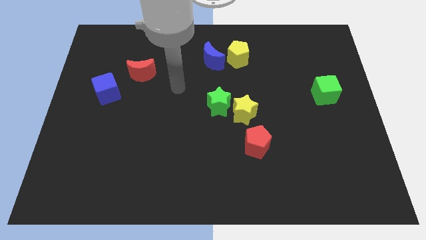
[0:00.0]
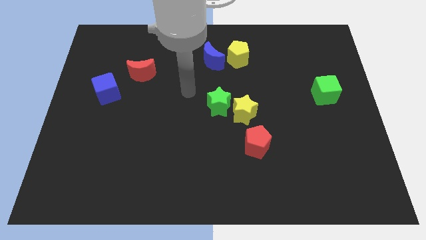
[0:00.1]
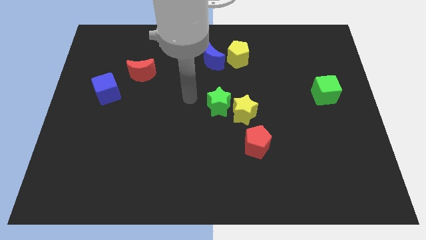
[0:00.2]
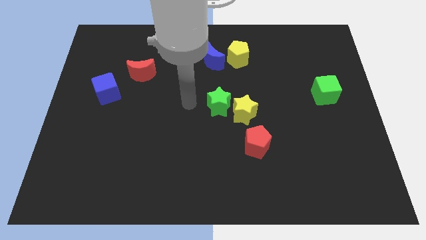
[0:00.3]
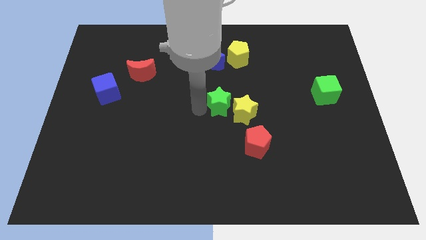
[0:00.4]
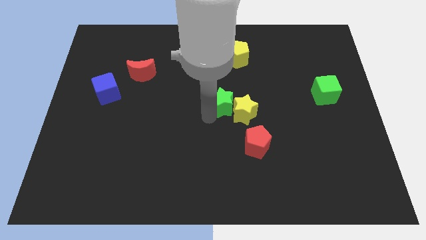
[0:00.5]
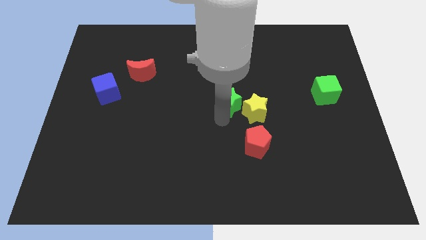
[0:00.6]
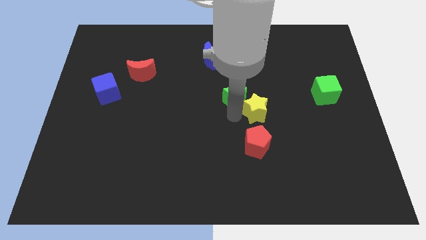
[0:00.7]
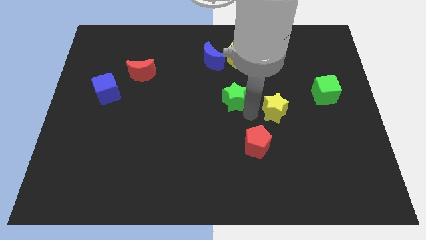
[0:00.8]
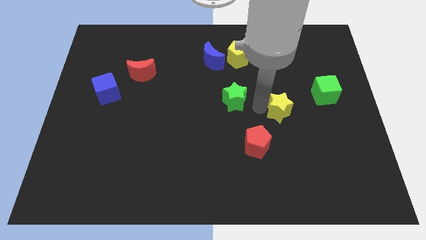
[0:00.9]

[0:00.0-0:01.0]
pull the green star apart from the yellow star

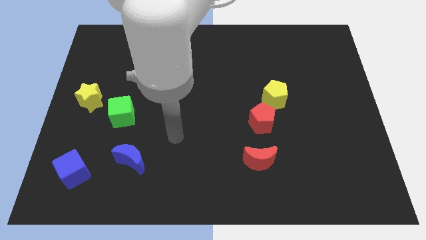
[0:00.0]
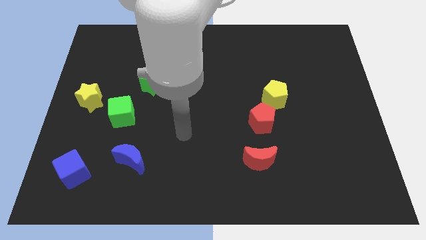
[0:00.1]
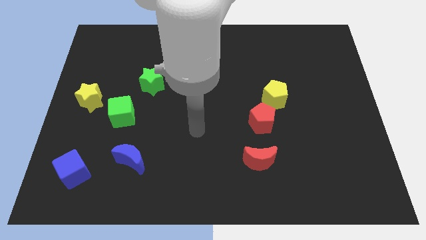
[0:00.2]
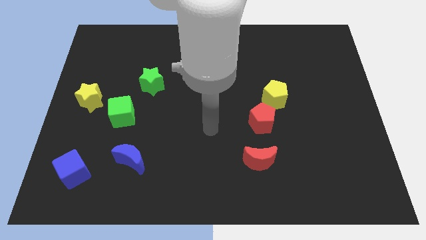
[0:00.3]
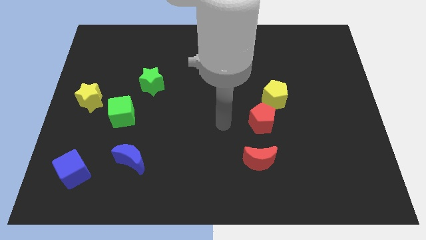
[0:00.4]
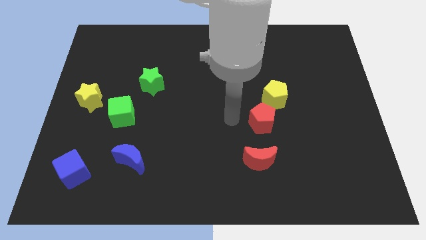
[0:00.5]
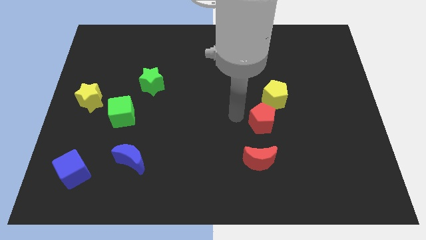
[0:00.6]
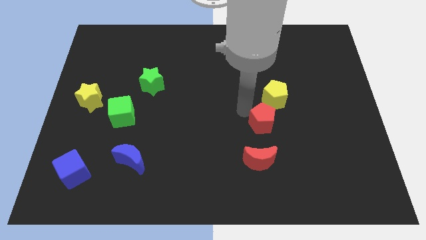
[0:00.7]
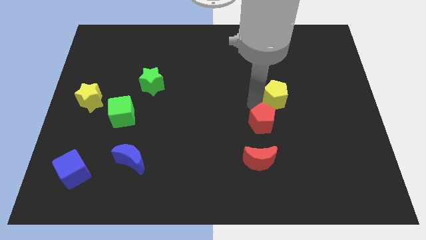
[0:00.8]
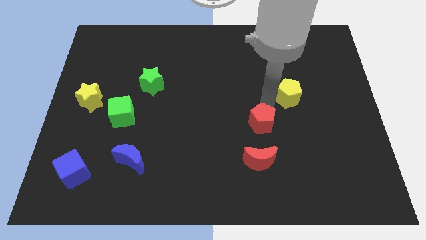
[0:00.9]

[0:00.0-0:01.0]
pull the red pentagon apart from the yellow pentagon

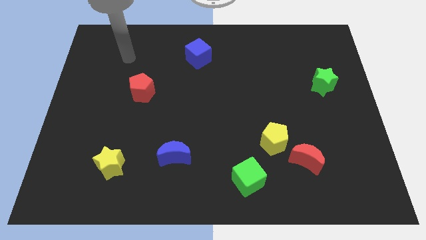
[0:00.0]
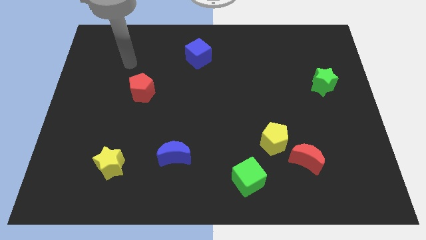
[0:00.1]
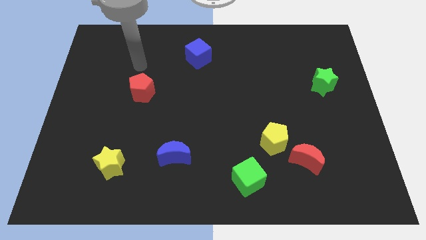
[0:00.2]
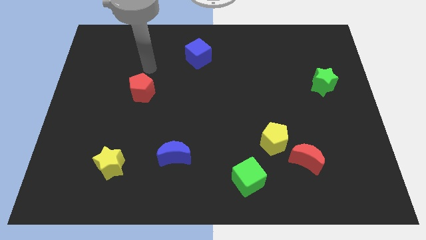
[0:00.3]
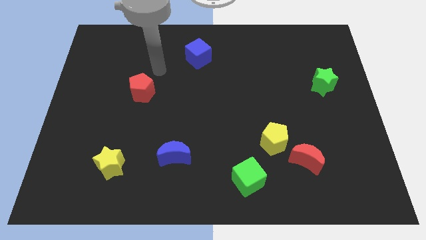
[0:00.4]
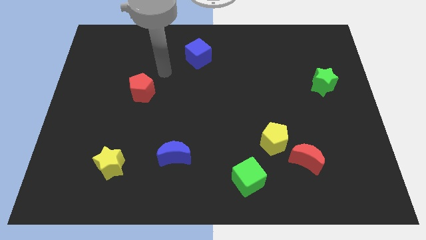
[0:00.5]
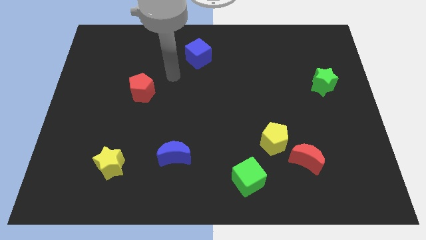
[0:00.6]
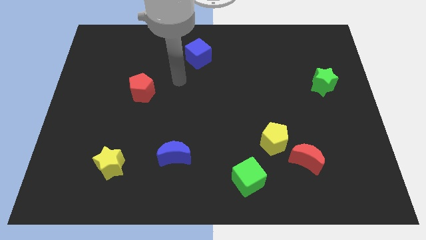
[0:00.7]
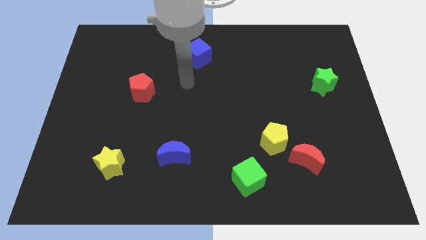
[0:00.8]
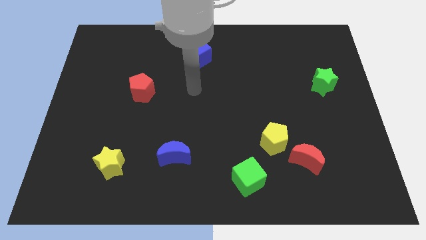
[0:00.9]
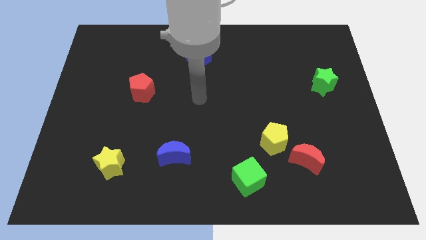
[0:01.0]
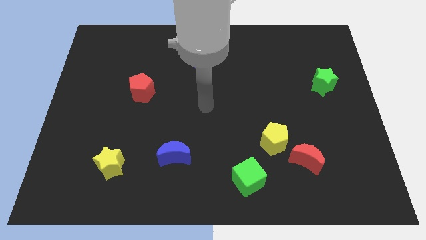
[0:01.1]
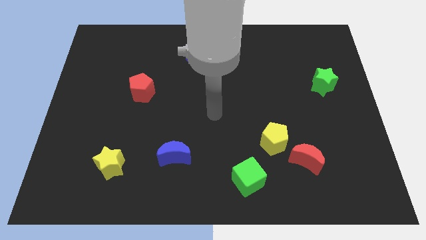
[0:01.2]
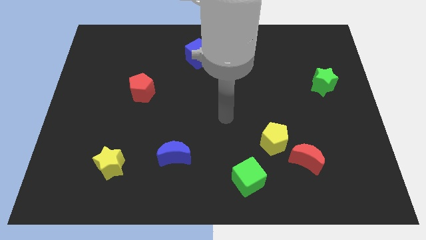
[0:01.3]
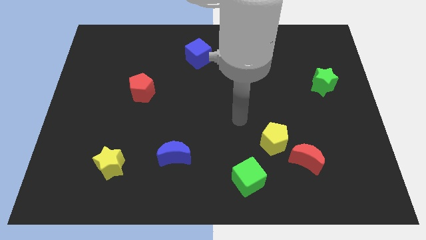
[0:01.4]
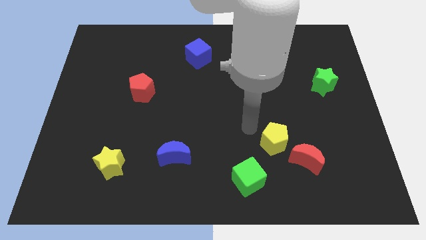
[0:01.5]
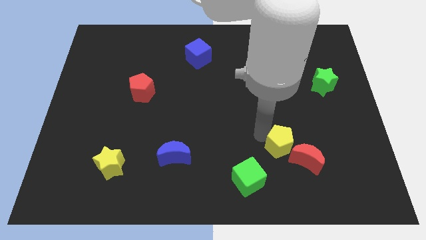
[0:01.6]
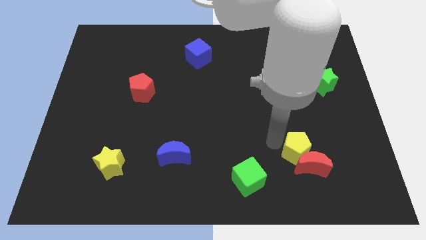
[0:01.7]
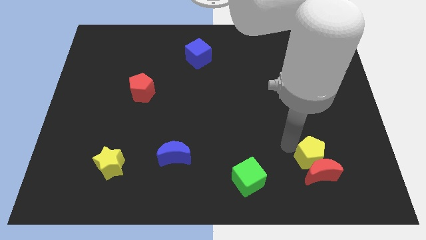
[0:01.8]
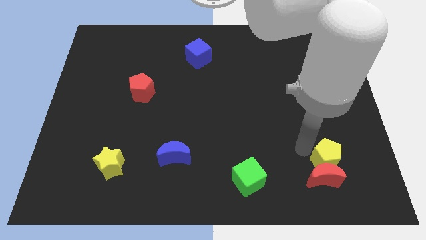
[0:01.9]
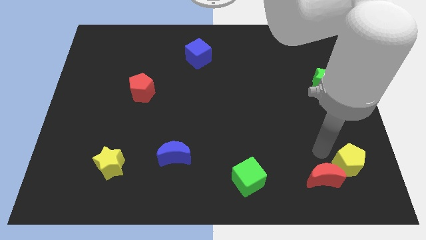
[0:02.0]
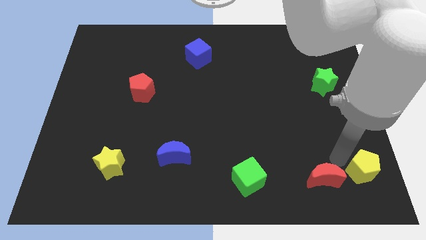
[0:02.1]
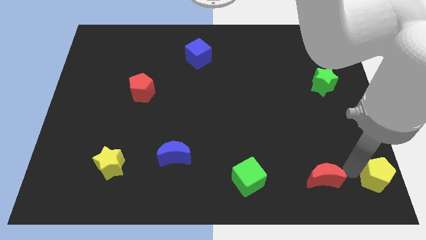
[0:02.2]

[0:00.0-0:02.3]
pull the red moon apart from the yellow pentagon

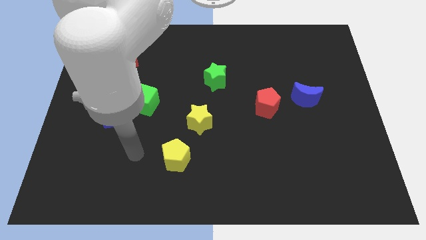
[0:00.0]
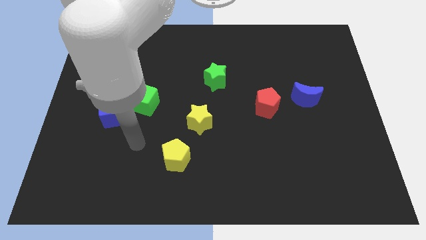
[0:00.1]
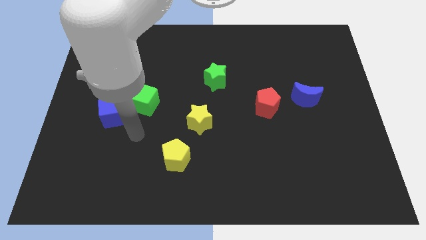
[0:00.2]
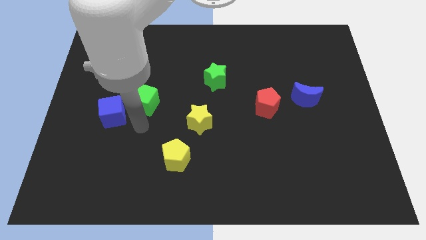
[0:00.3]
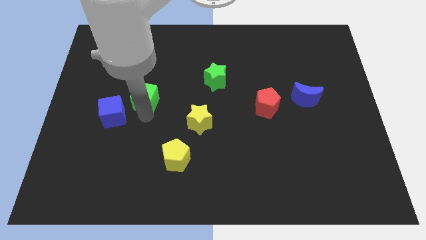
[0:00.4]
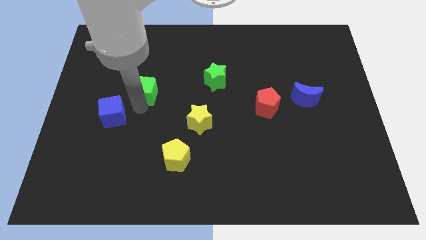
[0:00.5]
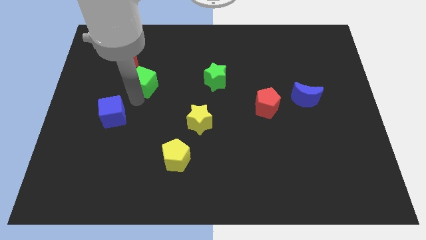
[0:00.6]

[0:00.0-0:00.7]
pull the blue cube apart from the green cube

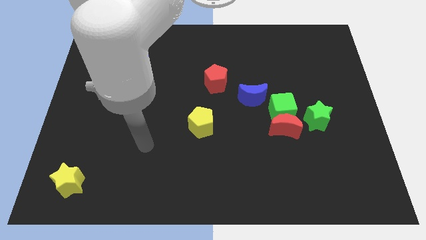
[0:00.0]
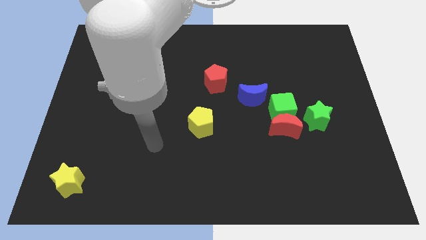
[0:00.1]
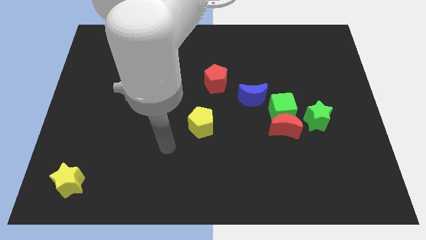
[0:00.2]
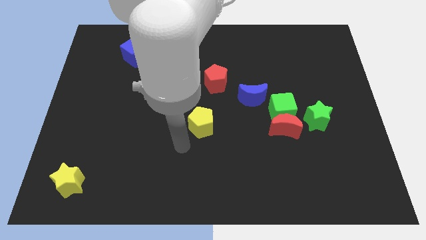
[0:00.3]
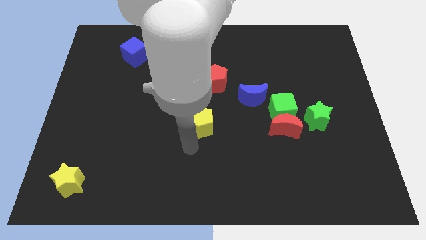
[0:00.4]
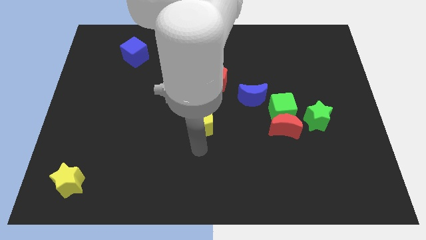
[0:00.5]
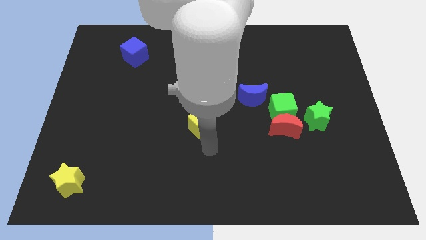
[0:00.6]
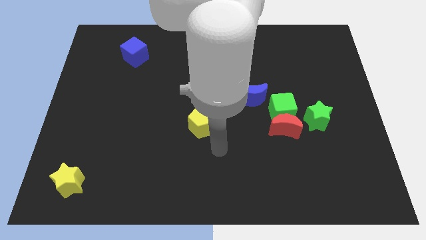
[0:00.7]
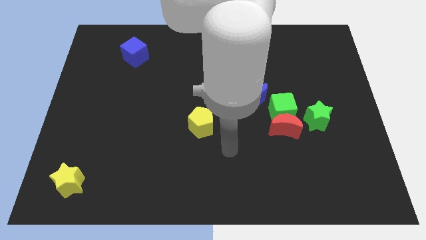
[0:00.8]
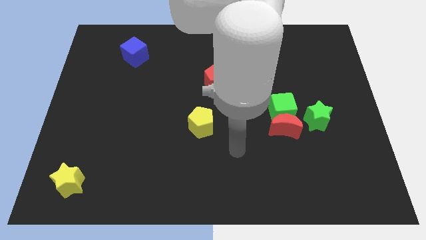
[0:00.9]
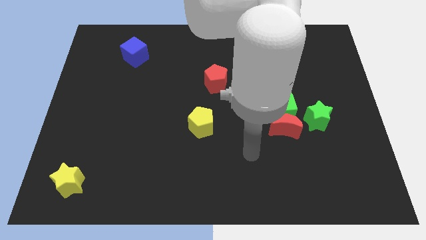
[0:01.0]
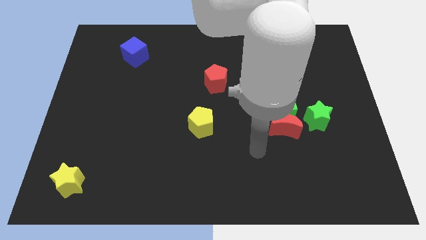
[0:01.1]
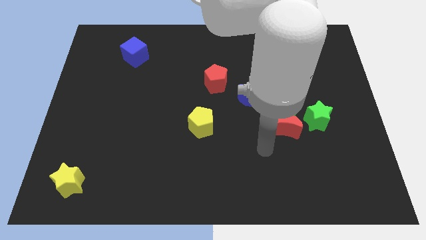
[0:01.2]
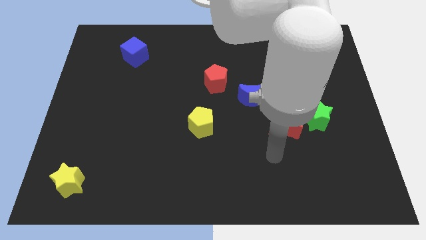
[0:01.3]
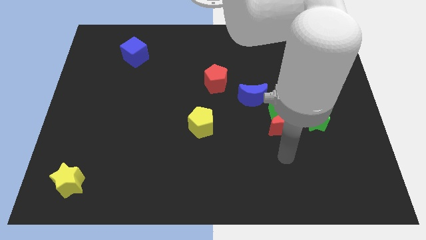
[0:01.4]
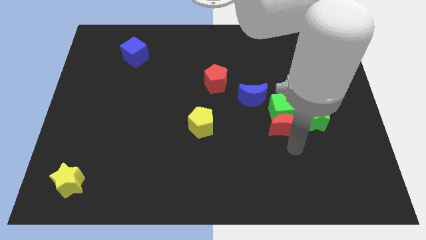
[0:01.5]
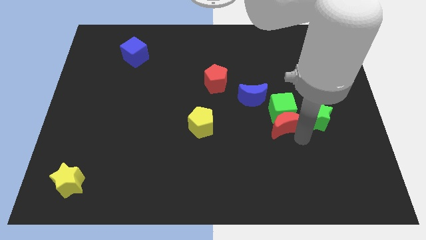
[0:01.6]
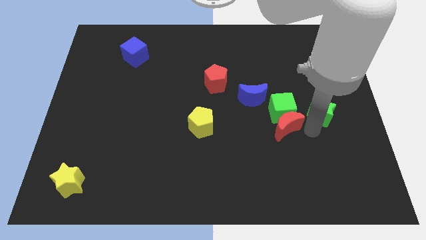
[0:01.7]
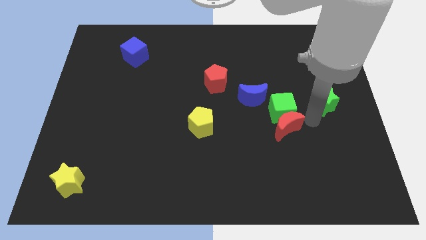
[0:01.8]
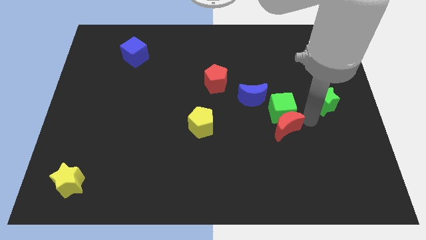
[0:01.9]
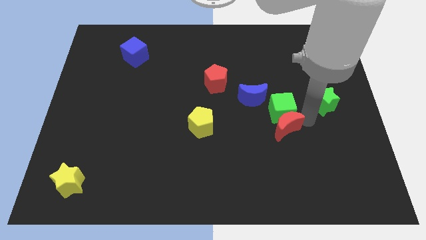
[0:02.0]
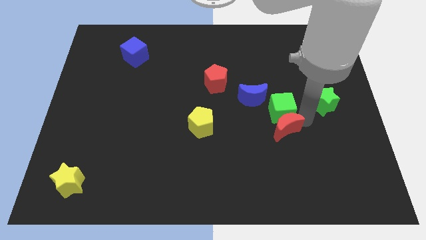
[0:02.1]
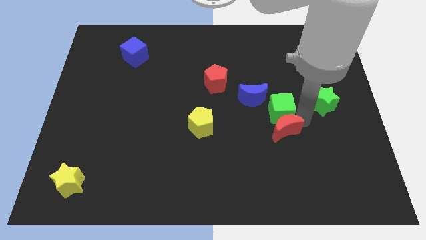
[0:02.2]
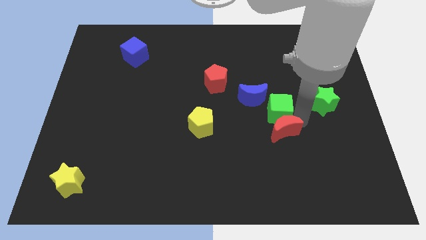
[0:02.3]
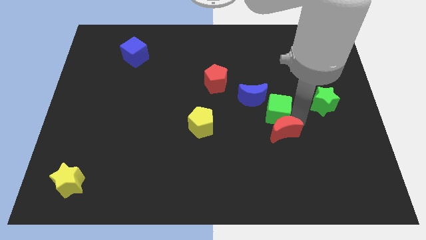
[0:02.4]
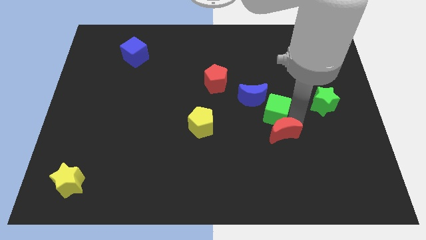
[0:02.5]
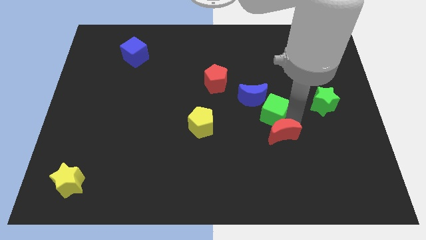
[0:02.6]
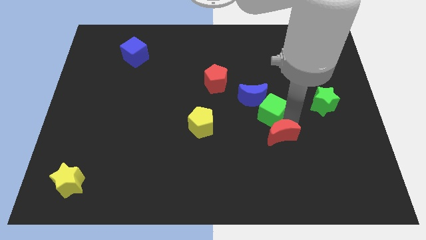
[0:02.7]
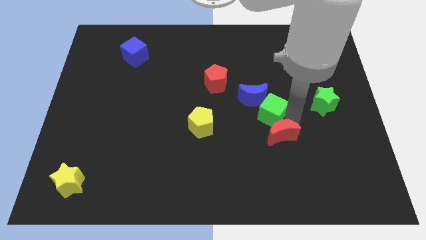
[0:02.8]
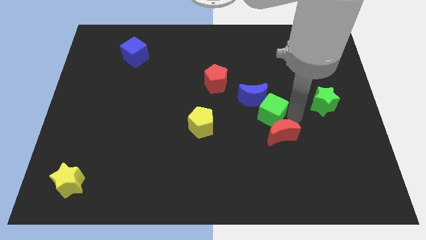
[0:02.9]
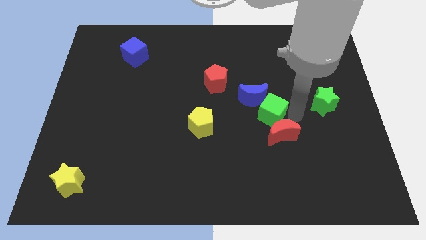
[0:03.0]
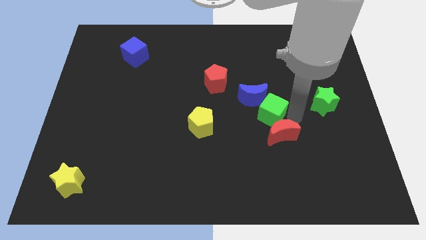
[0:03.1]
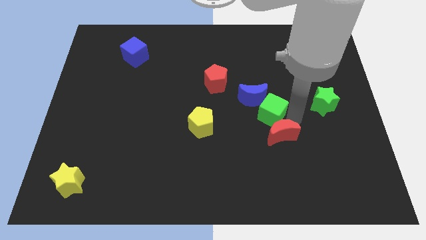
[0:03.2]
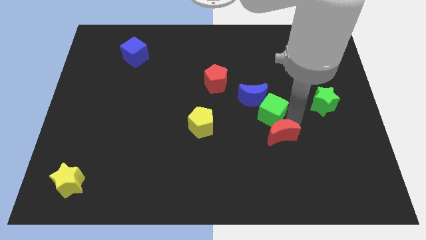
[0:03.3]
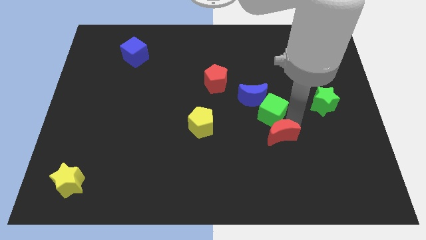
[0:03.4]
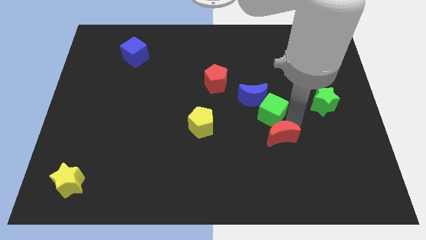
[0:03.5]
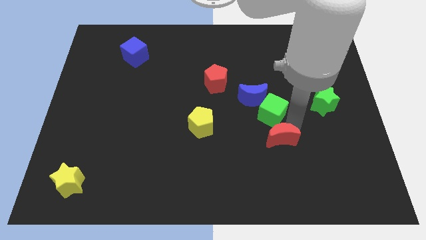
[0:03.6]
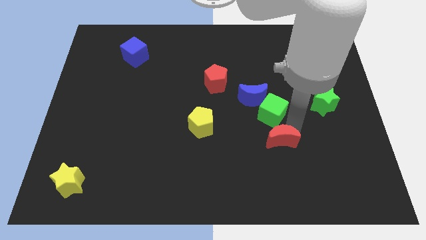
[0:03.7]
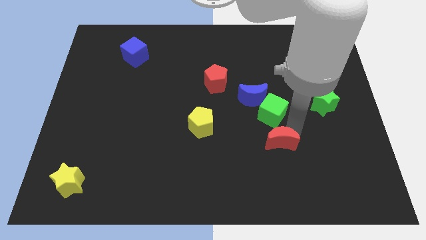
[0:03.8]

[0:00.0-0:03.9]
pull the red moon apart from the green cube and green star

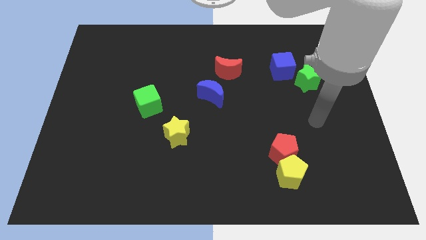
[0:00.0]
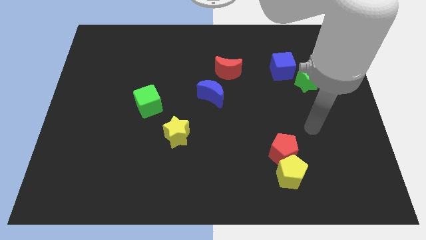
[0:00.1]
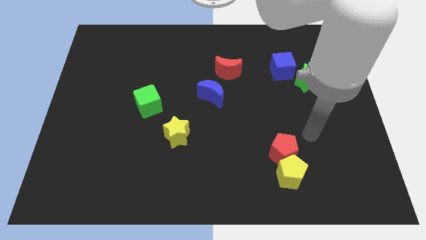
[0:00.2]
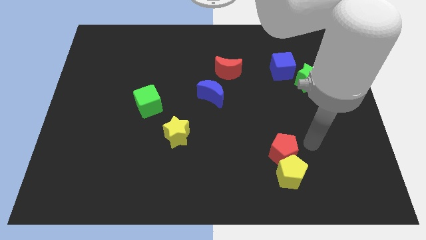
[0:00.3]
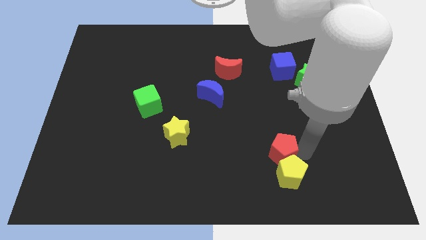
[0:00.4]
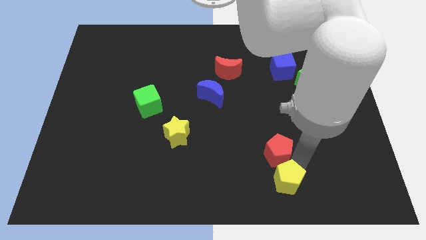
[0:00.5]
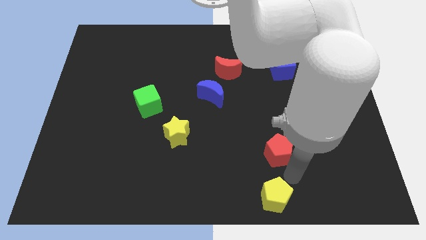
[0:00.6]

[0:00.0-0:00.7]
separate the red pentagon from the yellow pentagon
